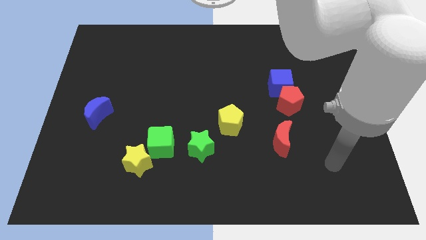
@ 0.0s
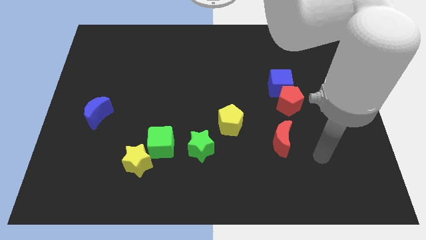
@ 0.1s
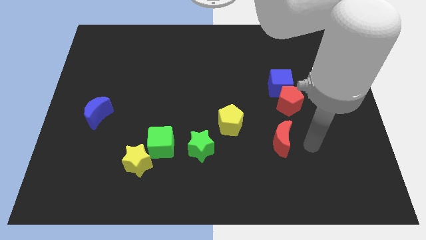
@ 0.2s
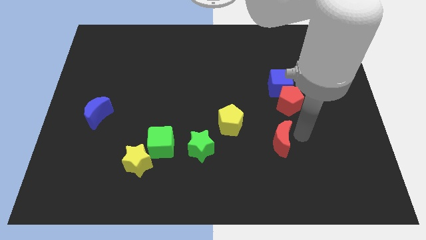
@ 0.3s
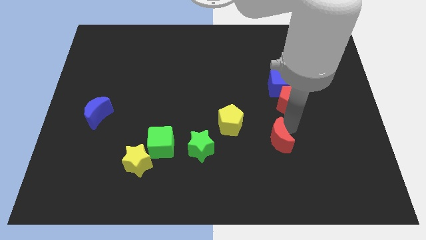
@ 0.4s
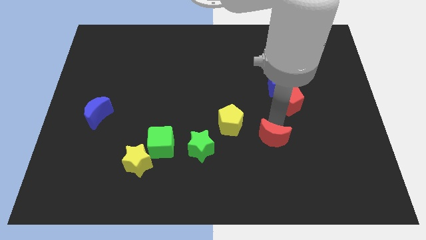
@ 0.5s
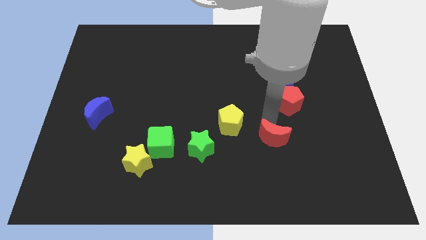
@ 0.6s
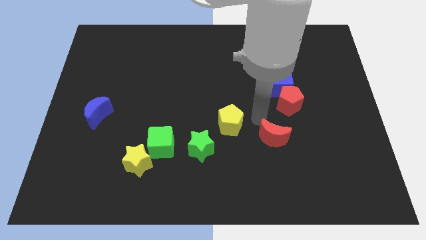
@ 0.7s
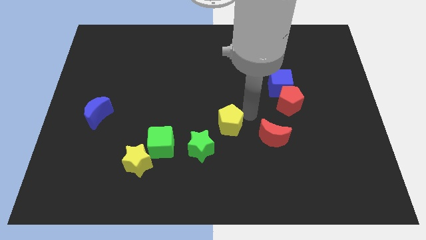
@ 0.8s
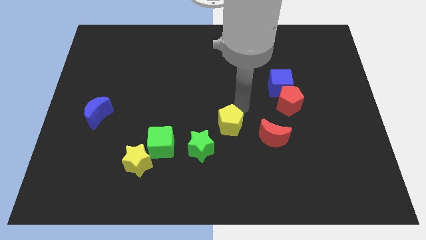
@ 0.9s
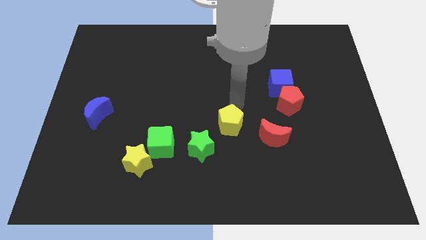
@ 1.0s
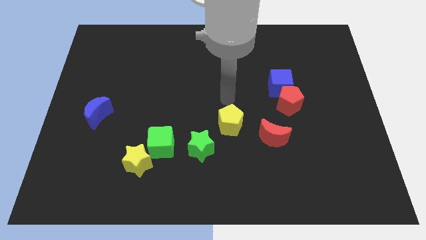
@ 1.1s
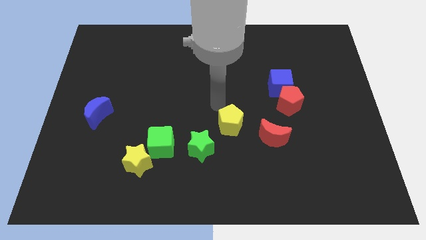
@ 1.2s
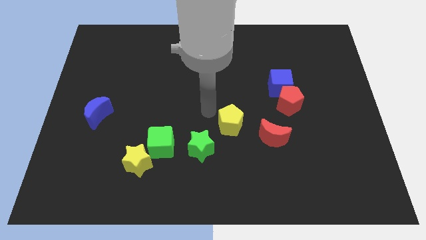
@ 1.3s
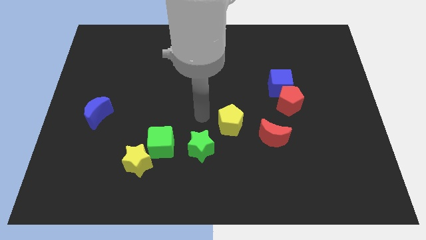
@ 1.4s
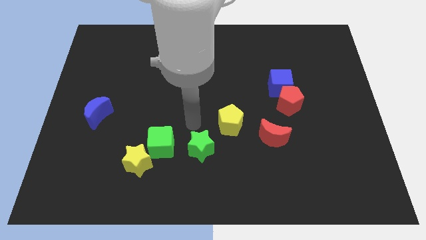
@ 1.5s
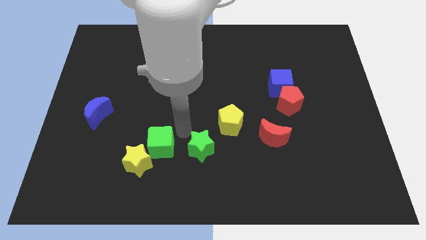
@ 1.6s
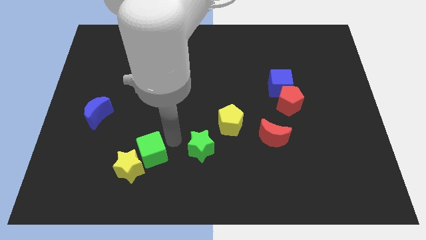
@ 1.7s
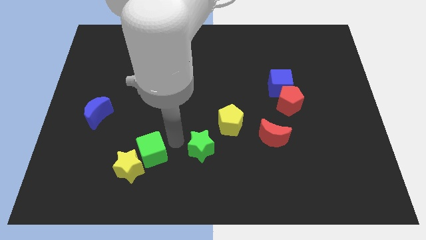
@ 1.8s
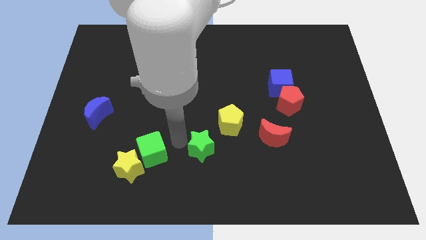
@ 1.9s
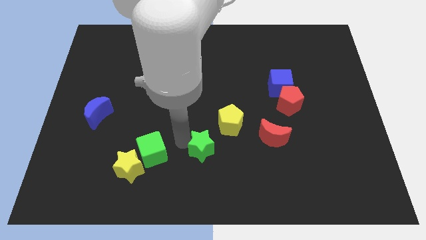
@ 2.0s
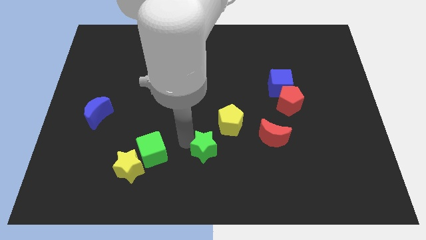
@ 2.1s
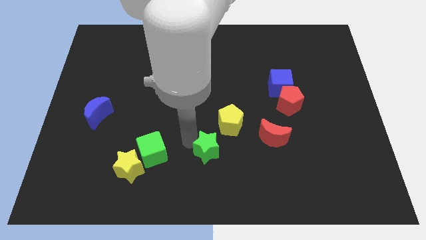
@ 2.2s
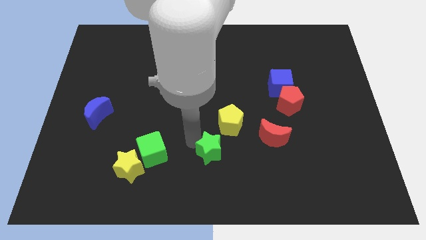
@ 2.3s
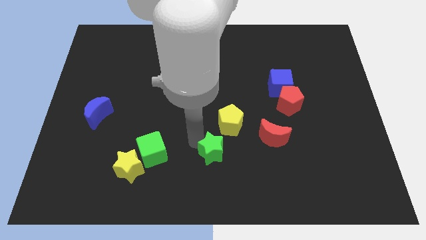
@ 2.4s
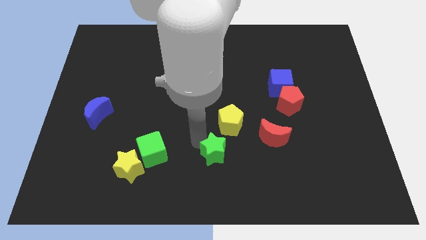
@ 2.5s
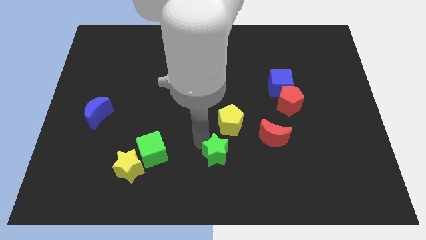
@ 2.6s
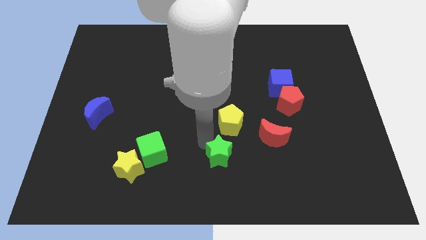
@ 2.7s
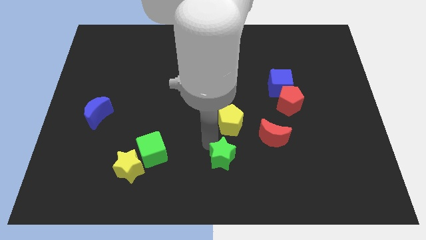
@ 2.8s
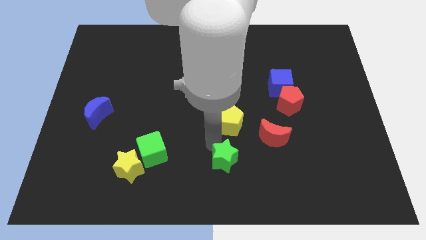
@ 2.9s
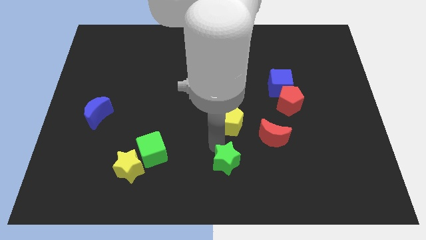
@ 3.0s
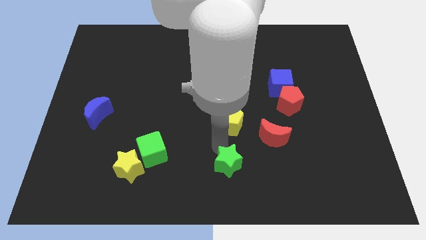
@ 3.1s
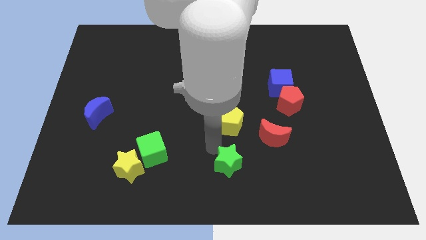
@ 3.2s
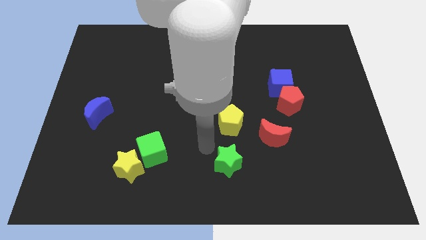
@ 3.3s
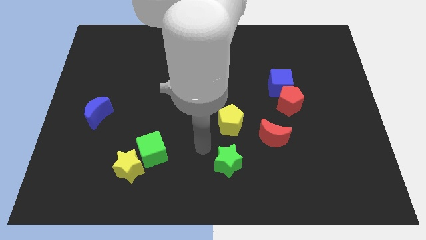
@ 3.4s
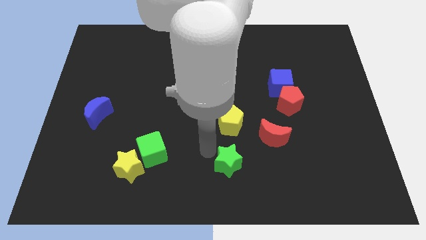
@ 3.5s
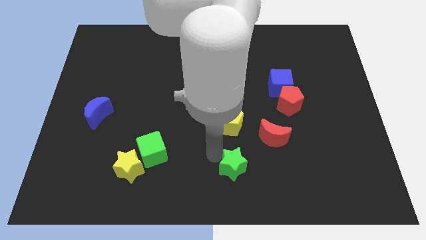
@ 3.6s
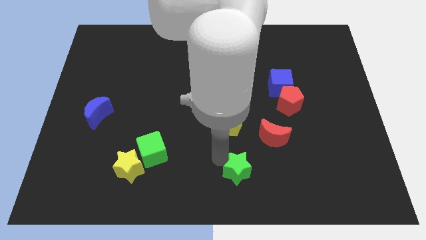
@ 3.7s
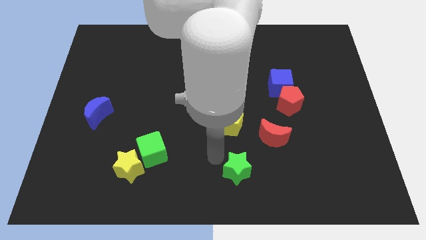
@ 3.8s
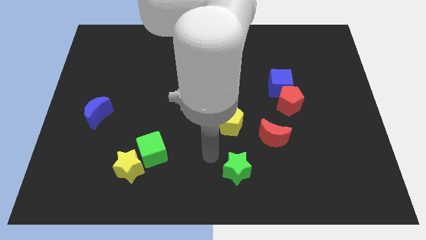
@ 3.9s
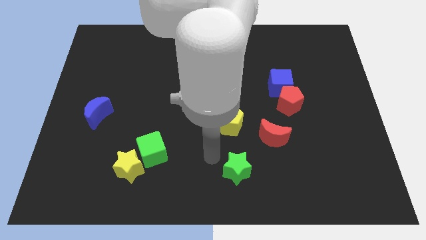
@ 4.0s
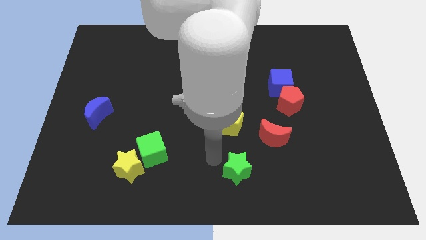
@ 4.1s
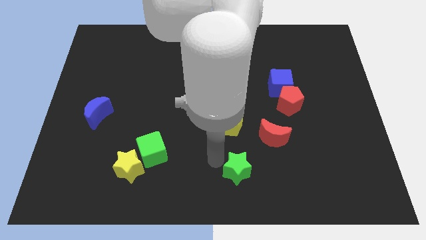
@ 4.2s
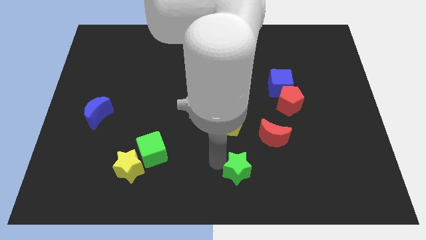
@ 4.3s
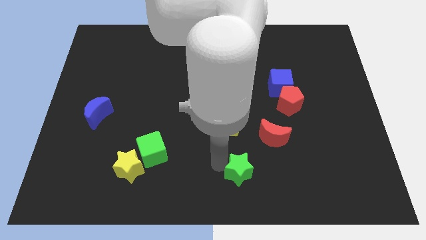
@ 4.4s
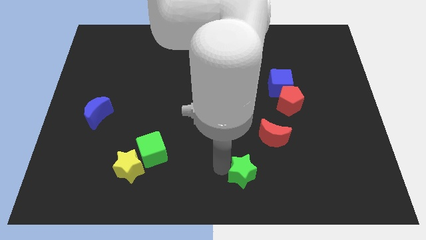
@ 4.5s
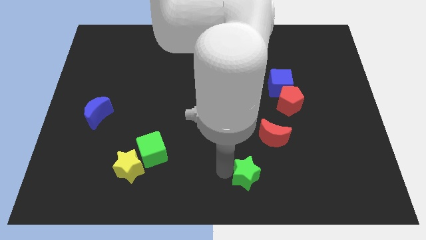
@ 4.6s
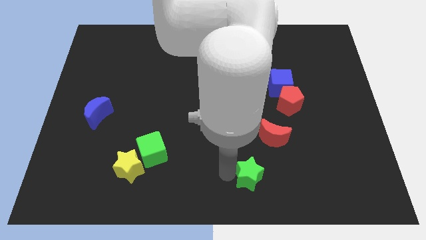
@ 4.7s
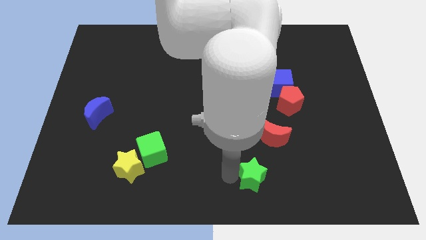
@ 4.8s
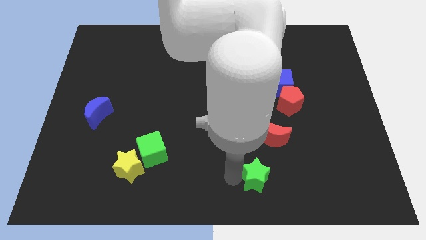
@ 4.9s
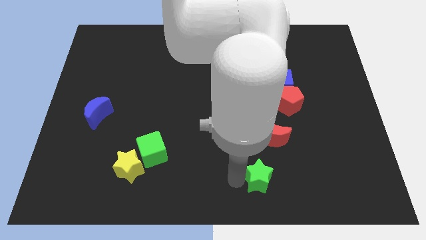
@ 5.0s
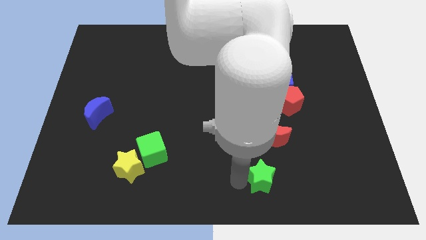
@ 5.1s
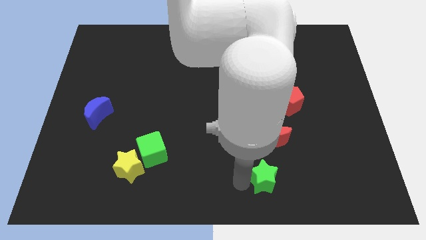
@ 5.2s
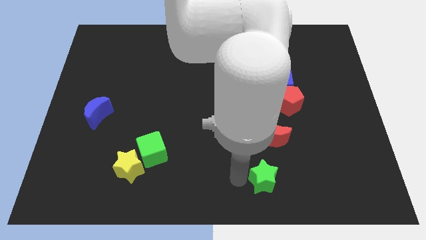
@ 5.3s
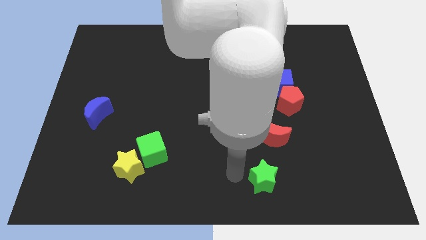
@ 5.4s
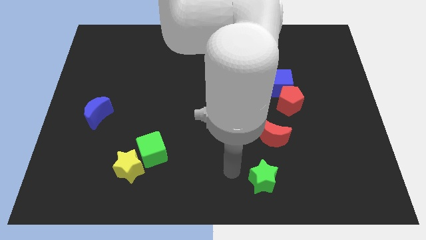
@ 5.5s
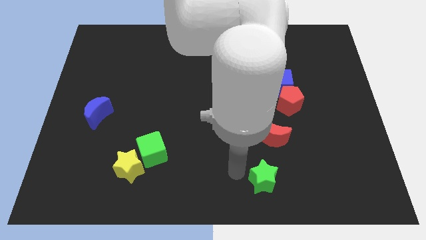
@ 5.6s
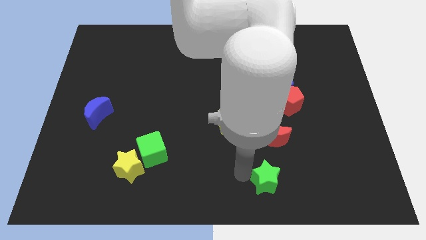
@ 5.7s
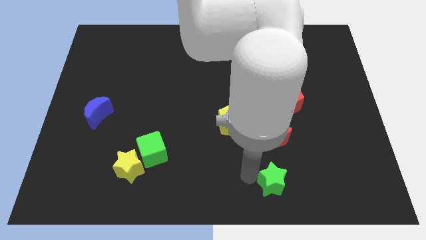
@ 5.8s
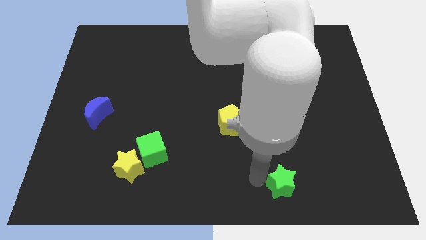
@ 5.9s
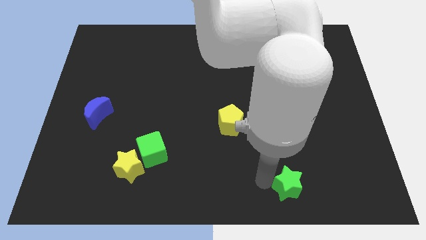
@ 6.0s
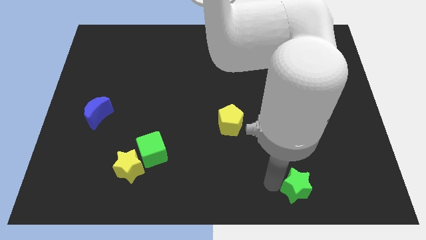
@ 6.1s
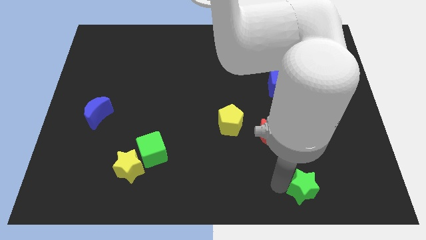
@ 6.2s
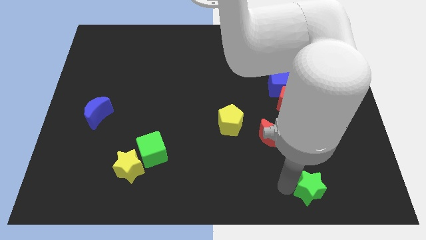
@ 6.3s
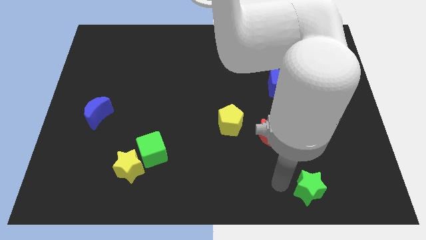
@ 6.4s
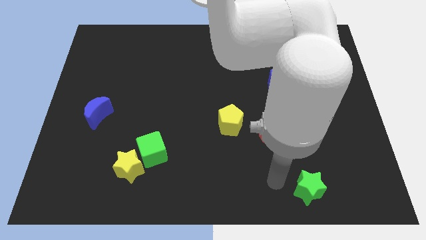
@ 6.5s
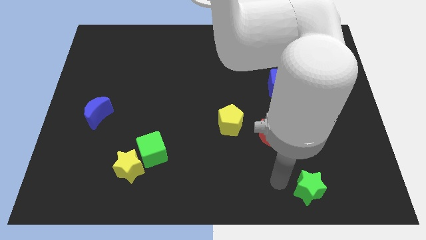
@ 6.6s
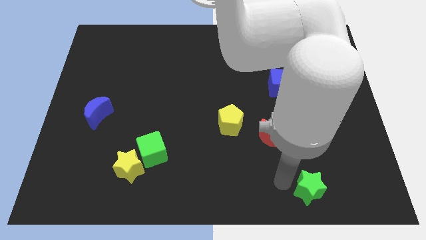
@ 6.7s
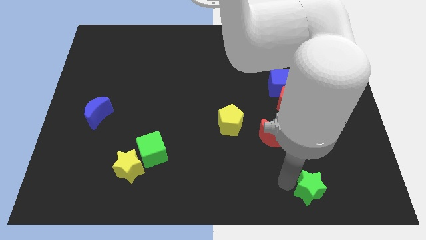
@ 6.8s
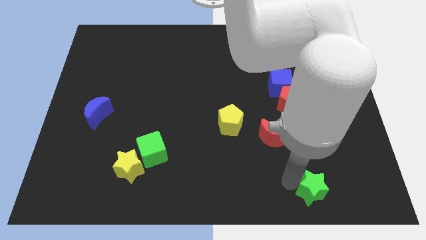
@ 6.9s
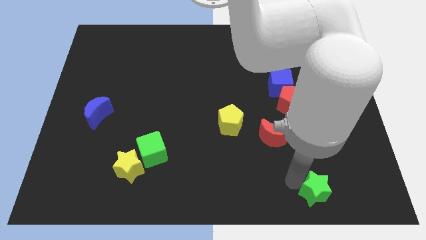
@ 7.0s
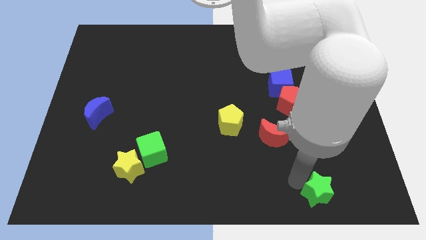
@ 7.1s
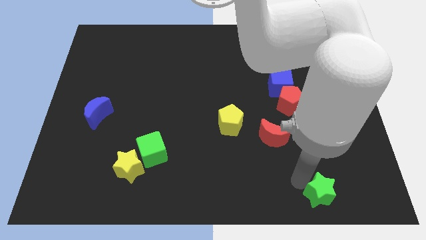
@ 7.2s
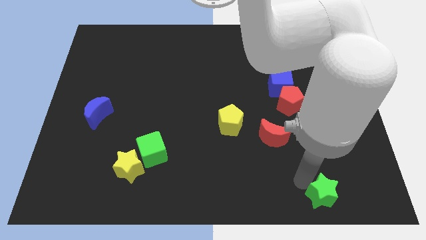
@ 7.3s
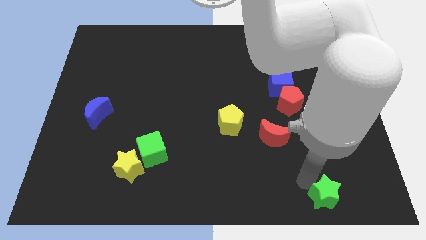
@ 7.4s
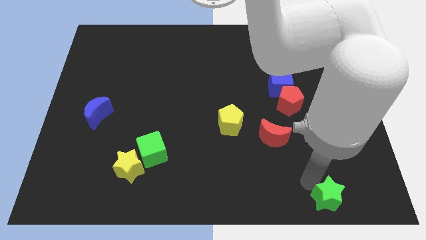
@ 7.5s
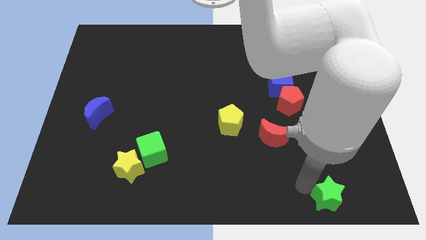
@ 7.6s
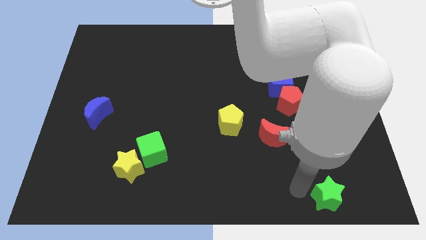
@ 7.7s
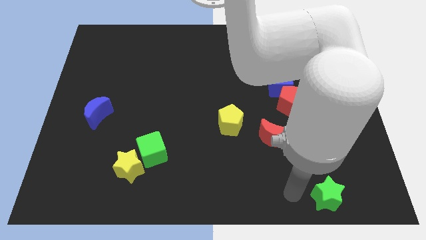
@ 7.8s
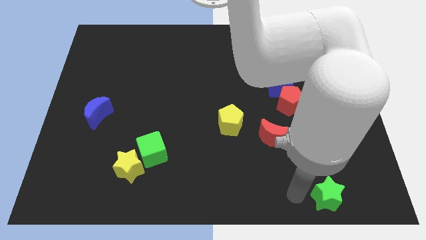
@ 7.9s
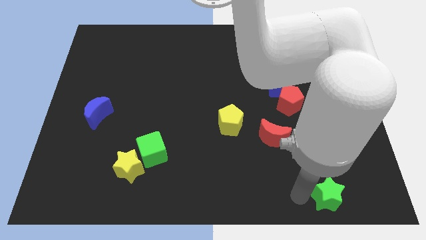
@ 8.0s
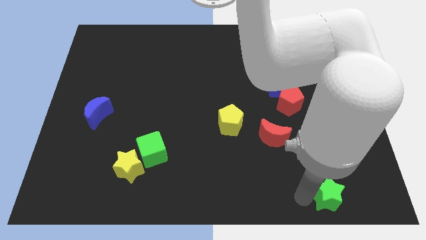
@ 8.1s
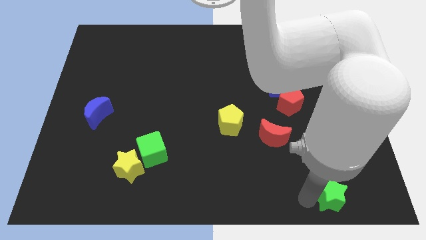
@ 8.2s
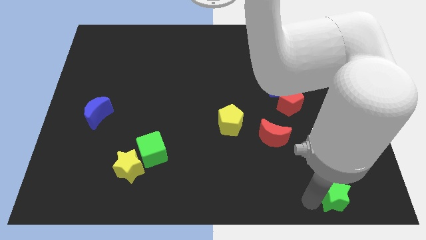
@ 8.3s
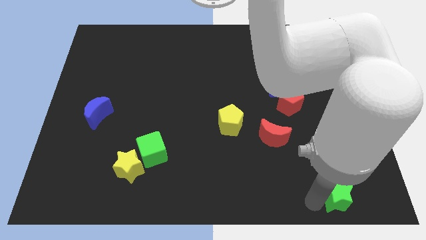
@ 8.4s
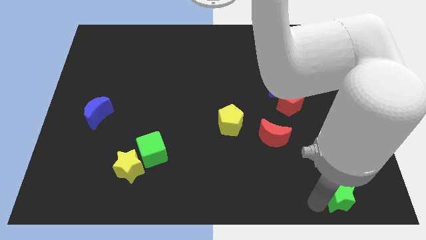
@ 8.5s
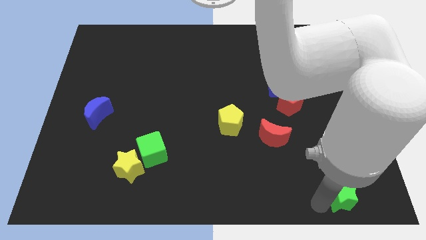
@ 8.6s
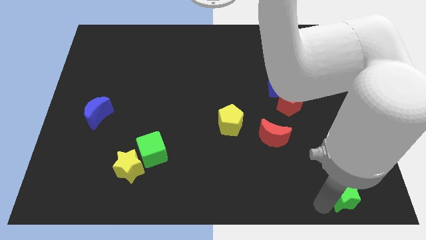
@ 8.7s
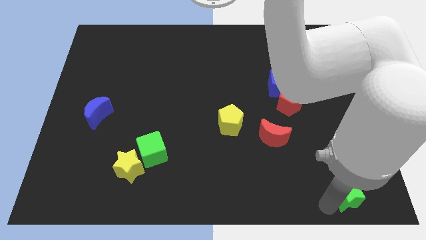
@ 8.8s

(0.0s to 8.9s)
put the green star to the lower right corner
